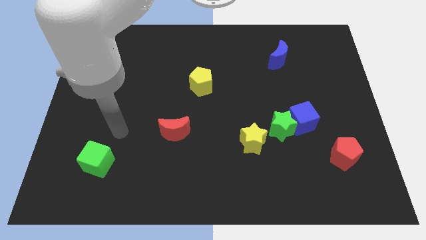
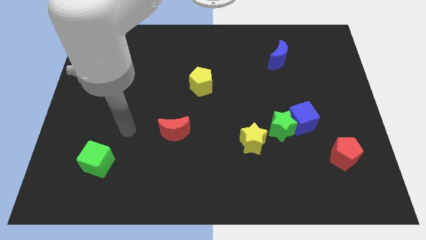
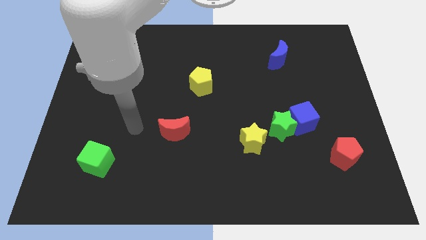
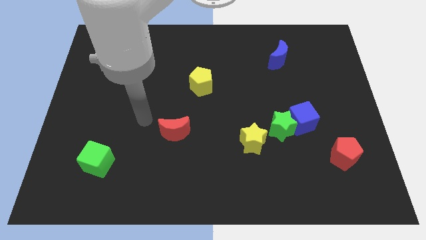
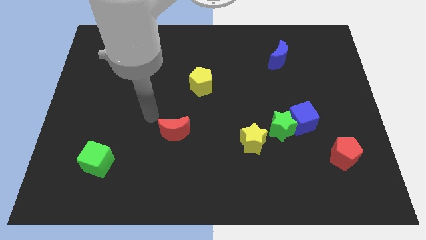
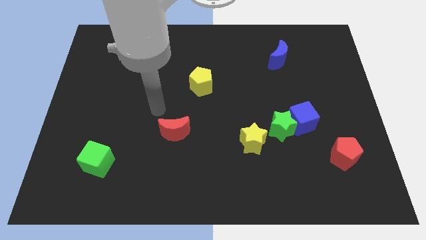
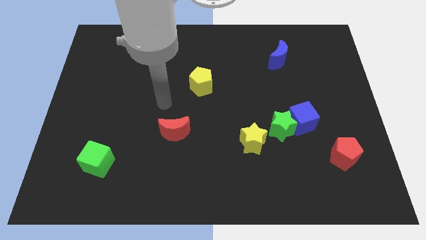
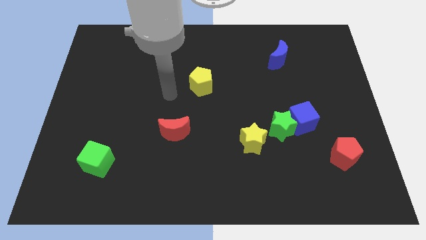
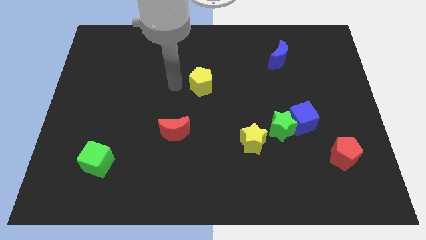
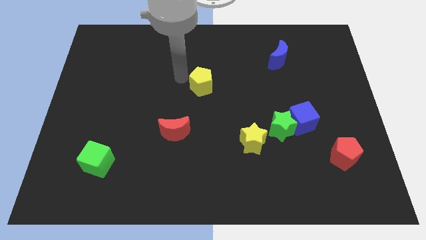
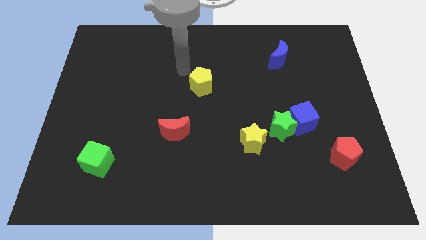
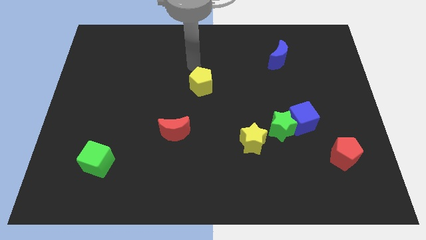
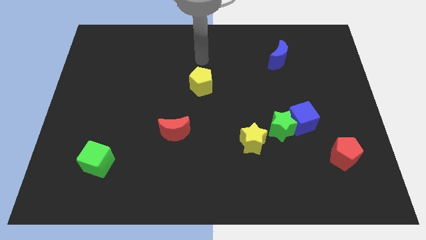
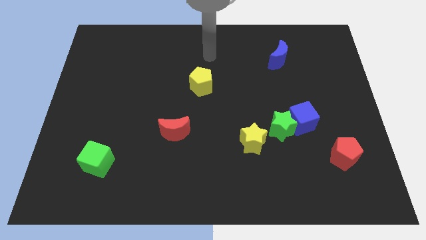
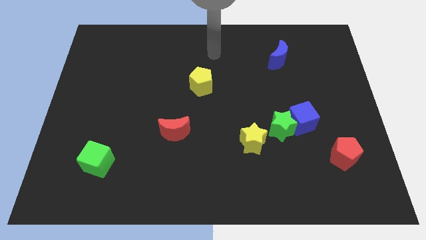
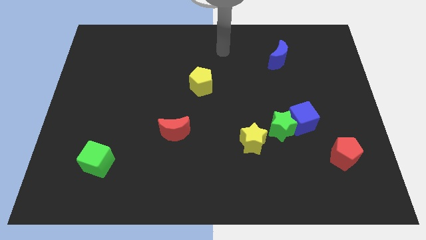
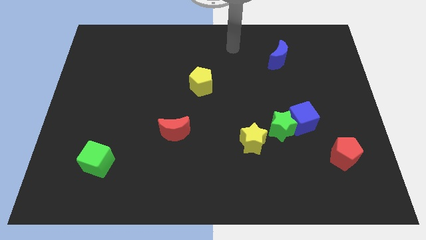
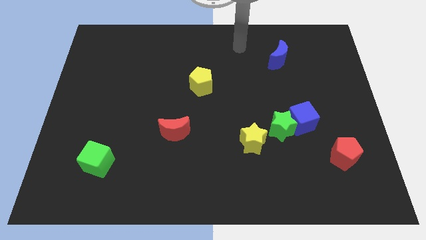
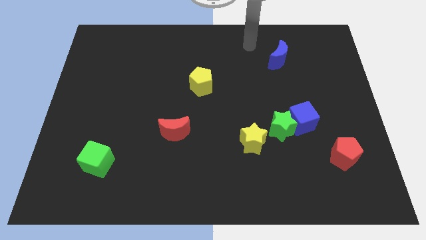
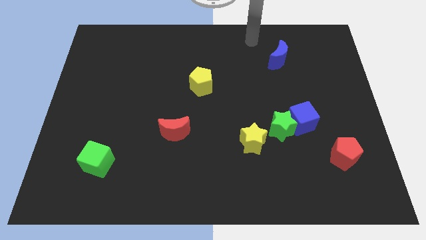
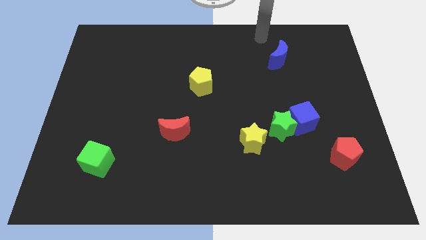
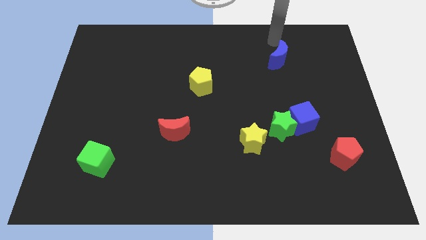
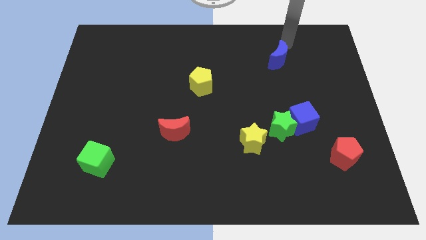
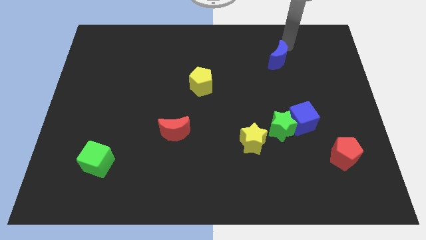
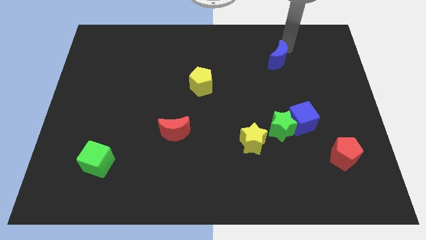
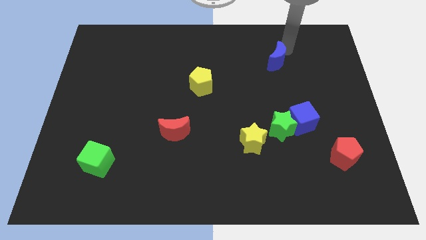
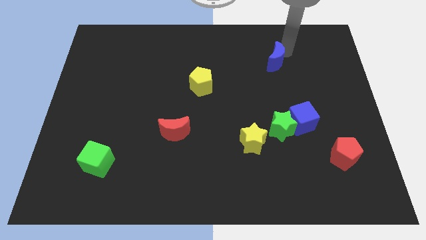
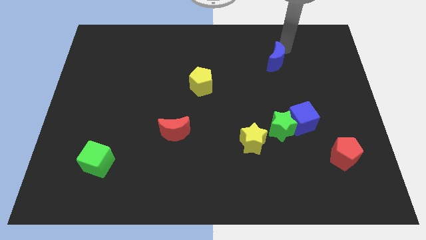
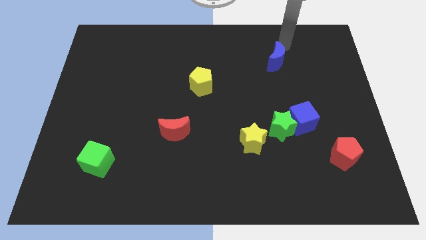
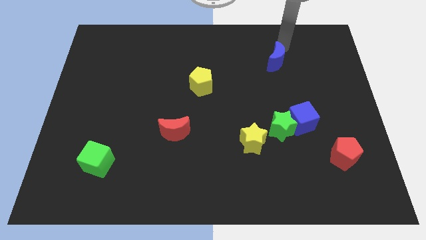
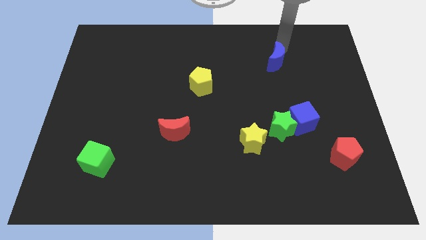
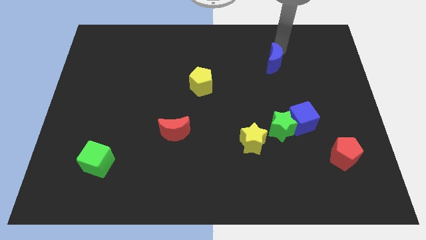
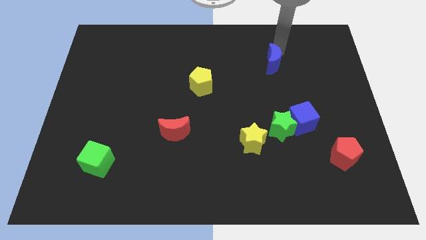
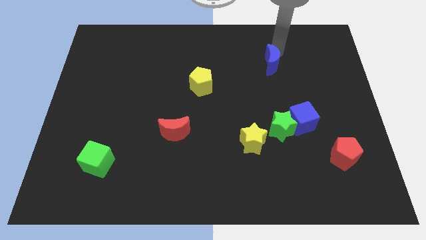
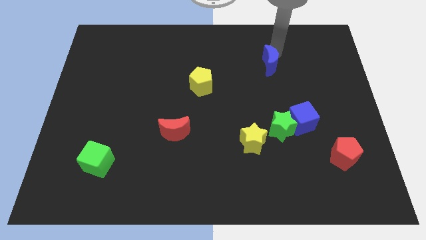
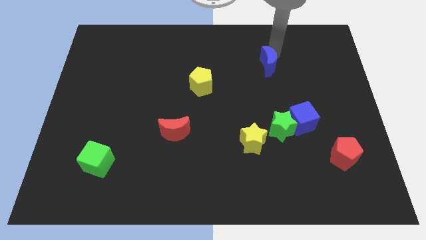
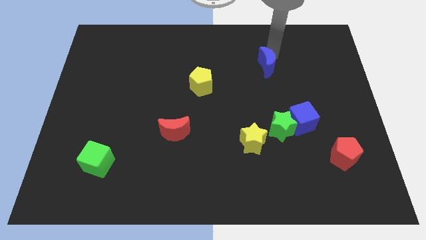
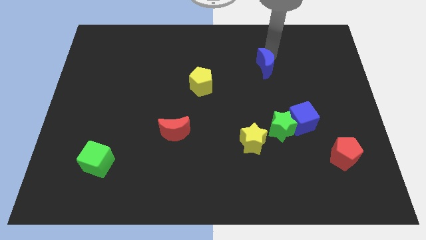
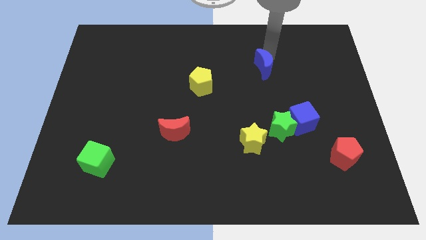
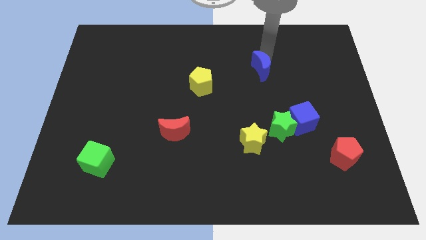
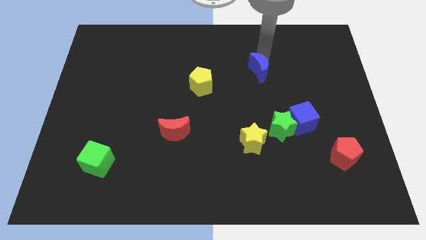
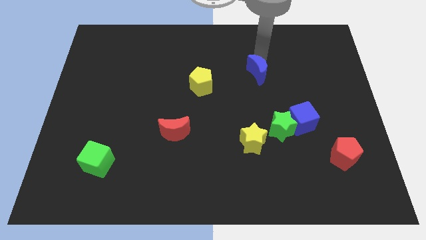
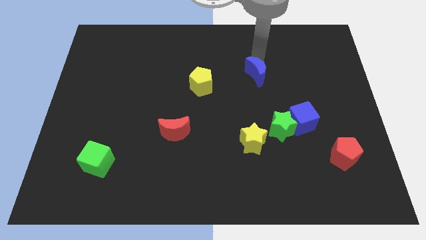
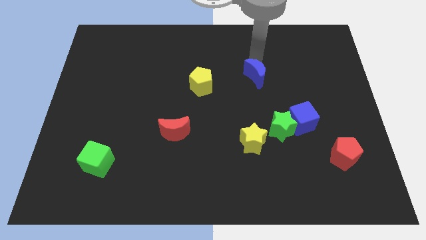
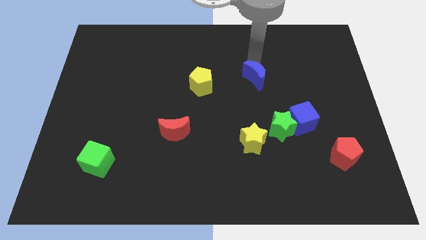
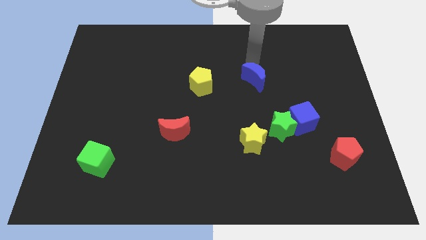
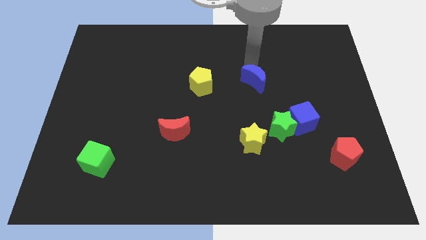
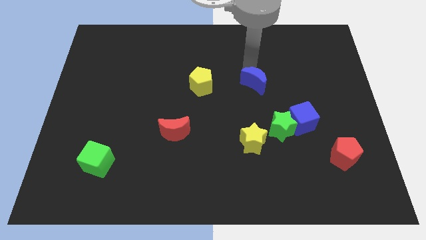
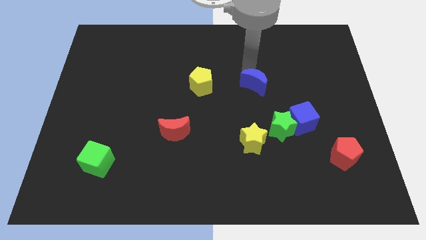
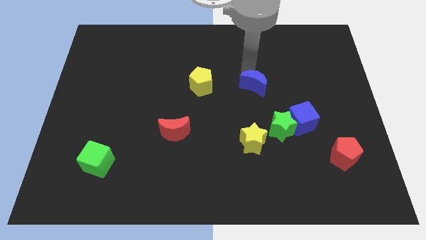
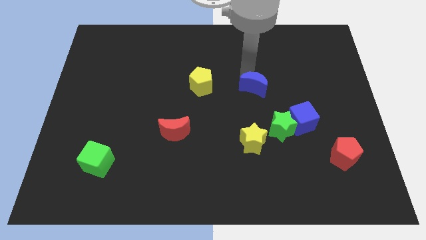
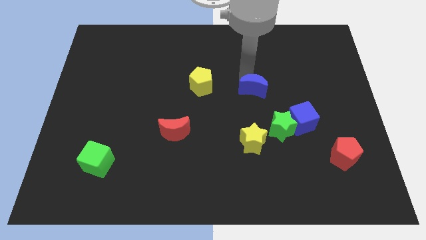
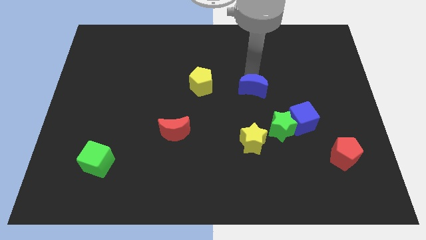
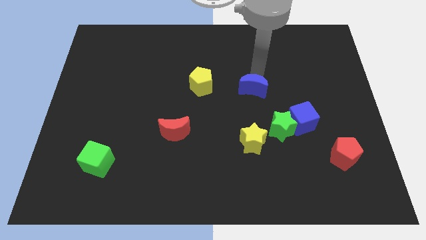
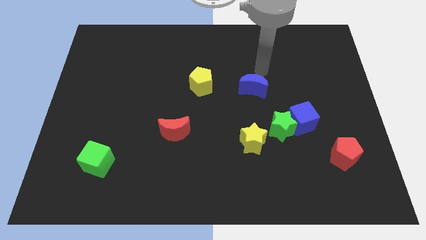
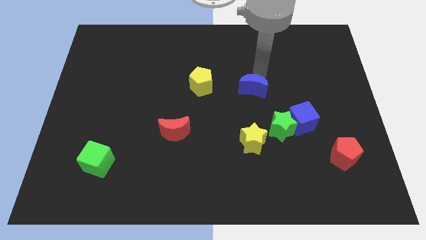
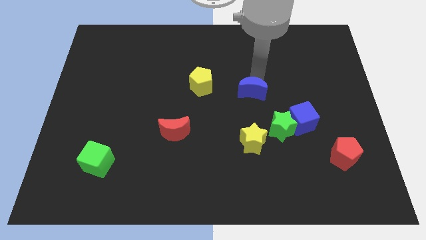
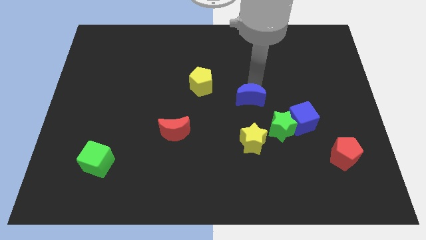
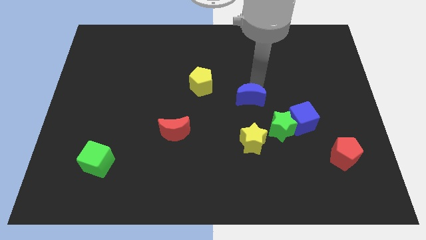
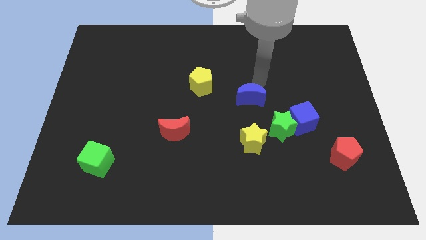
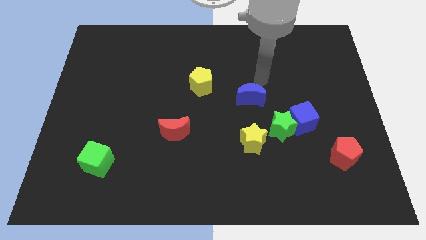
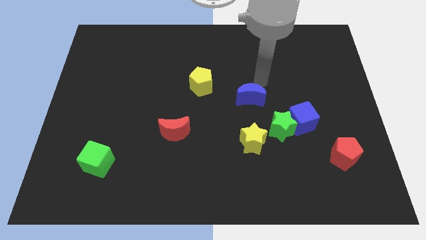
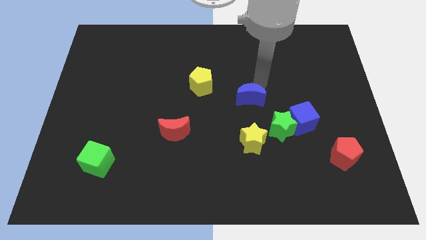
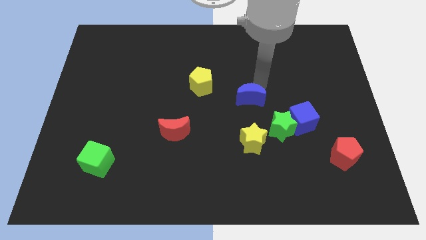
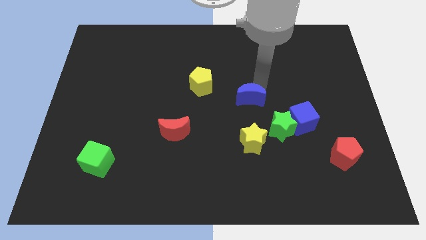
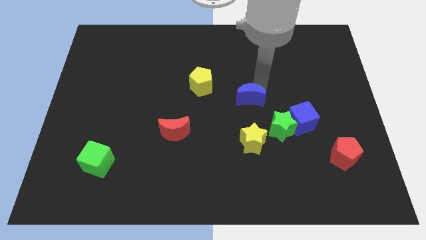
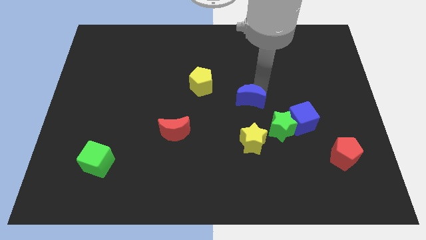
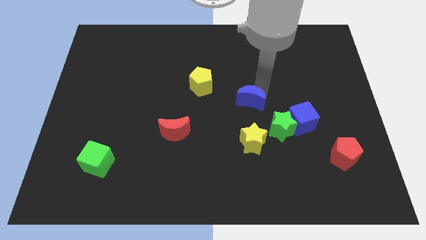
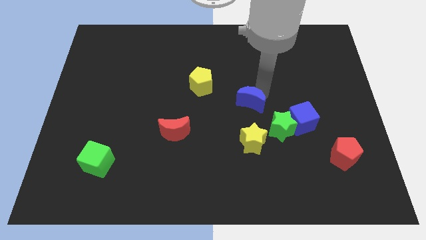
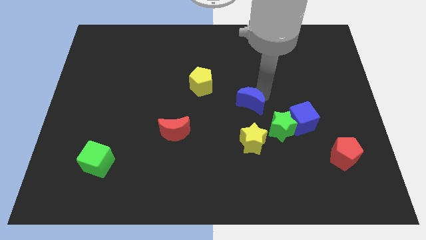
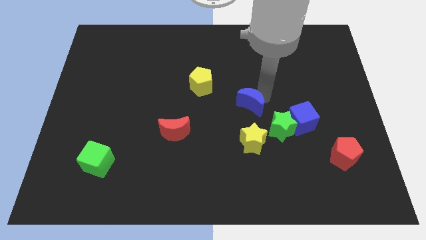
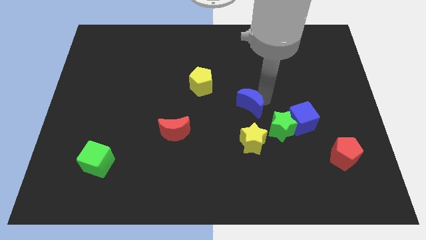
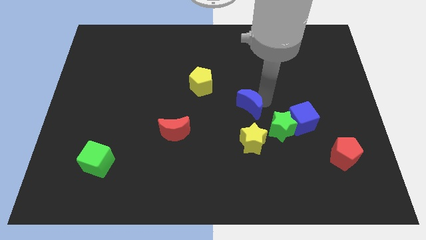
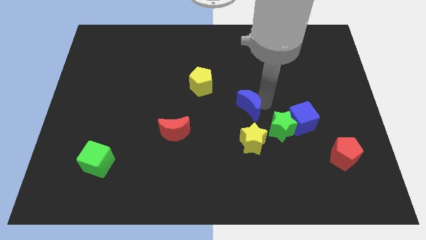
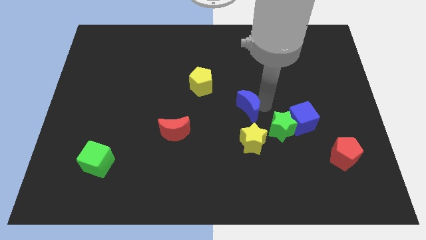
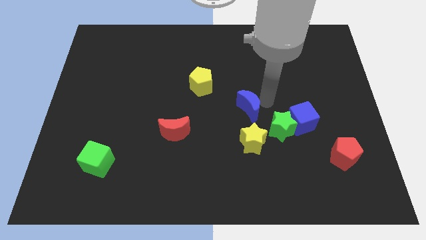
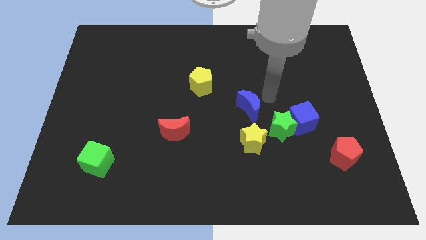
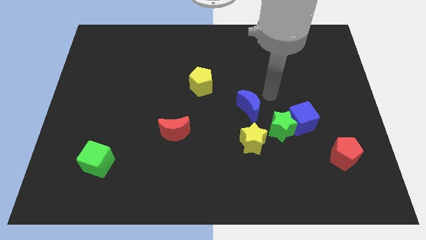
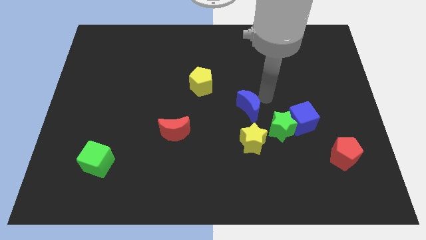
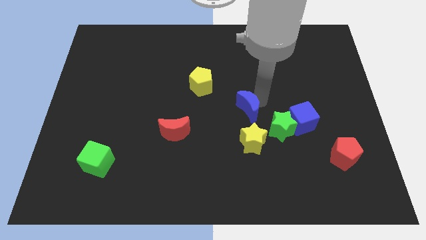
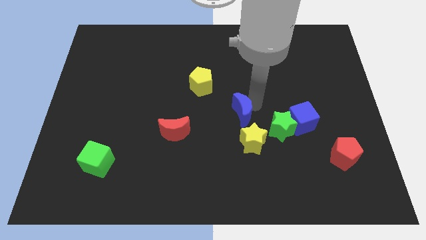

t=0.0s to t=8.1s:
push the blue moon diagonally up and to the left of the yellow star
